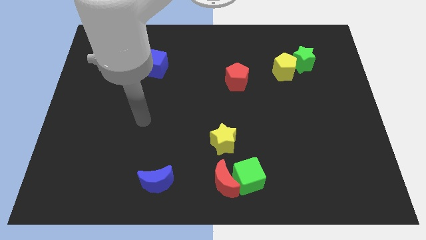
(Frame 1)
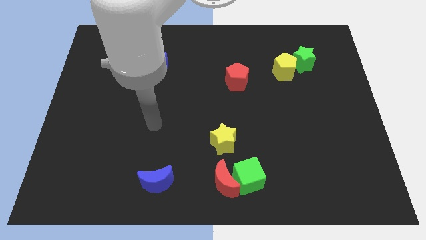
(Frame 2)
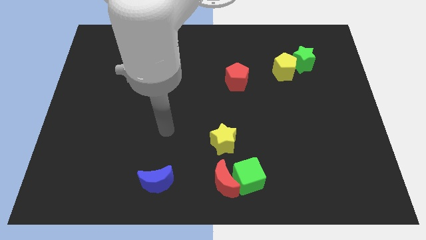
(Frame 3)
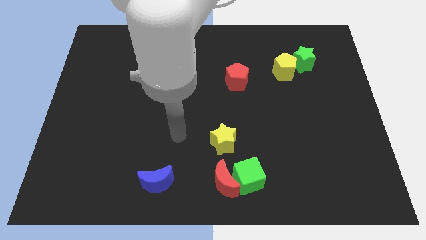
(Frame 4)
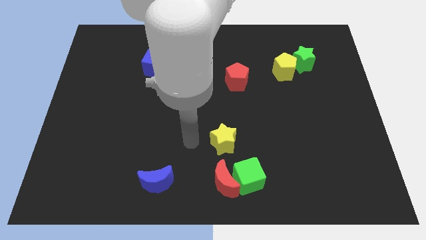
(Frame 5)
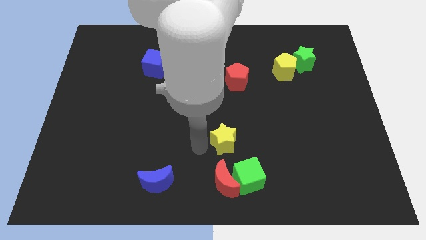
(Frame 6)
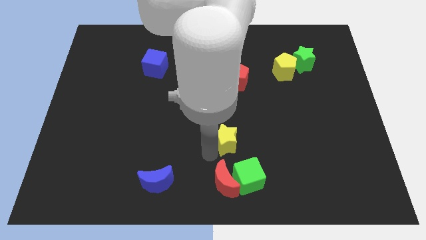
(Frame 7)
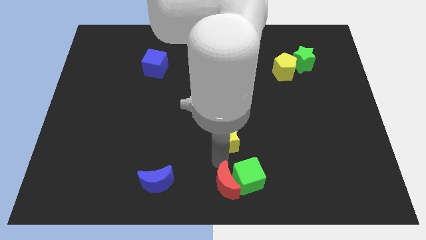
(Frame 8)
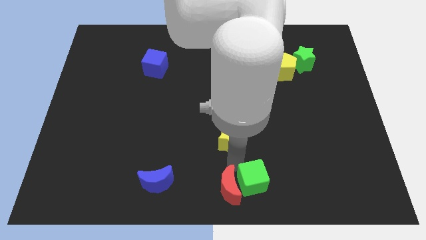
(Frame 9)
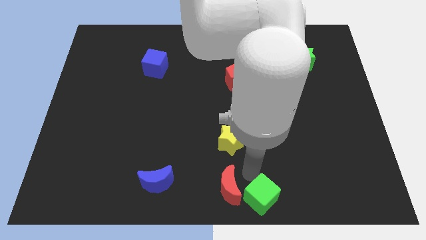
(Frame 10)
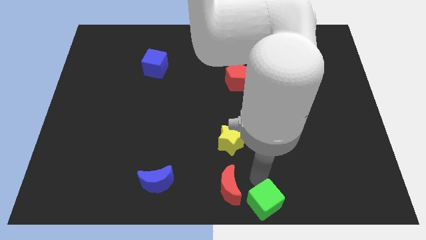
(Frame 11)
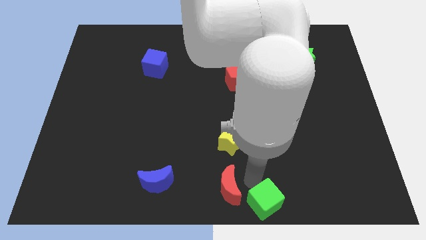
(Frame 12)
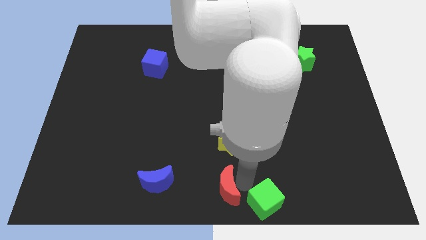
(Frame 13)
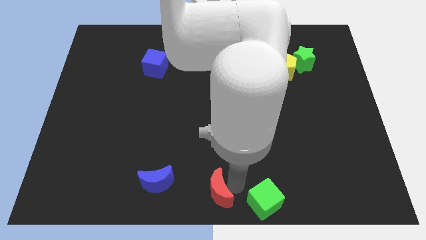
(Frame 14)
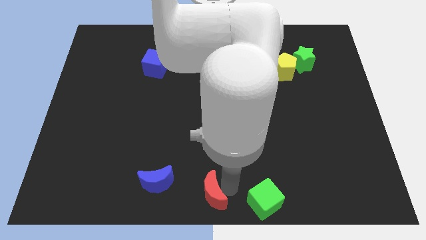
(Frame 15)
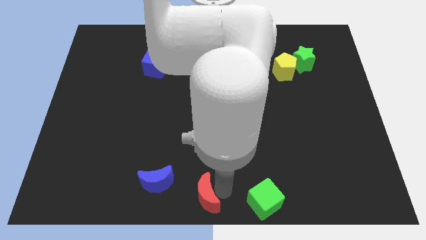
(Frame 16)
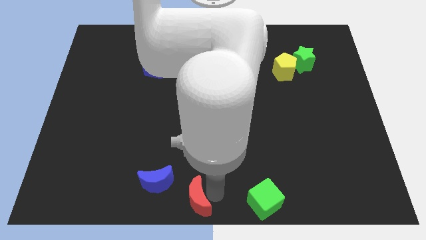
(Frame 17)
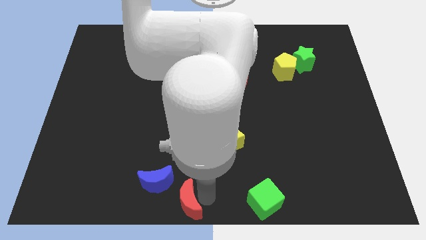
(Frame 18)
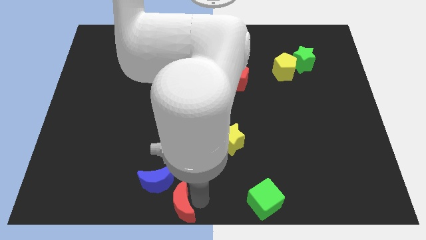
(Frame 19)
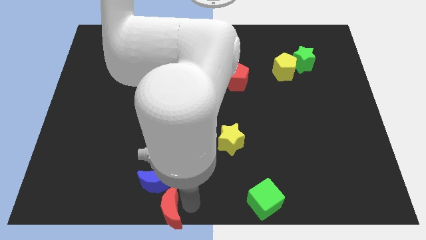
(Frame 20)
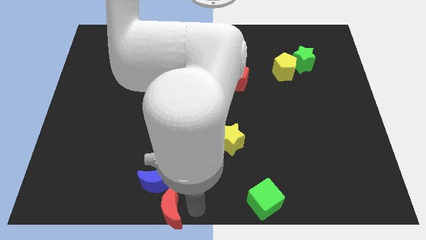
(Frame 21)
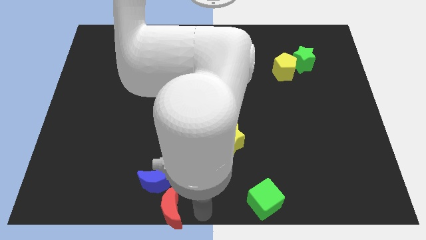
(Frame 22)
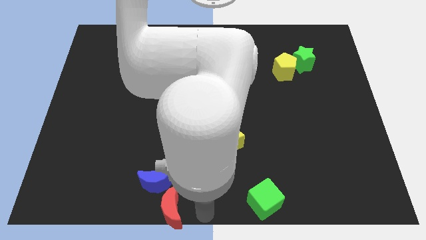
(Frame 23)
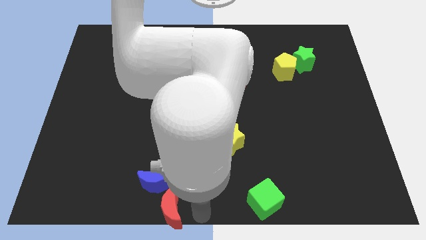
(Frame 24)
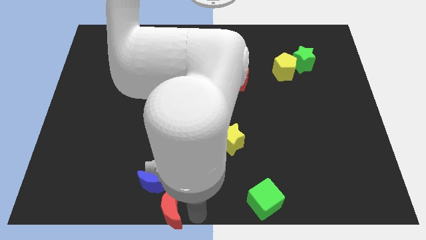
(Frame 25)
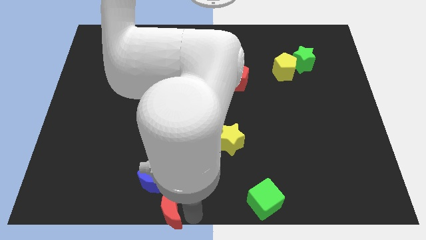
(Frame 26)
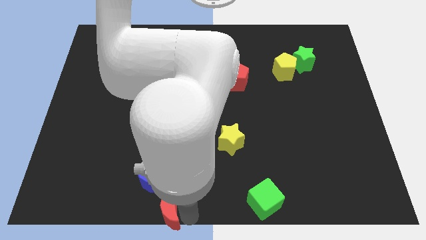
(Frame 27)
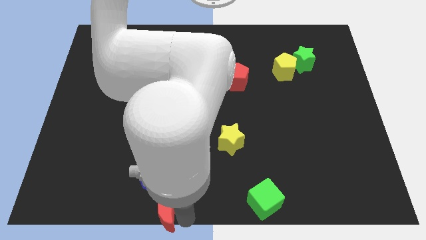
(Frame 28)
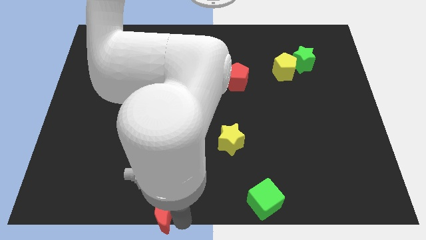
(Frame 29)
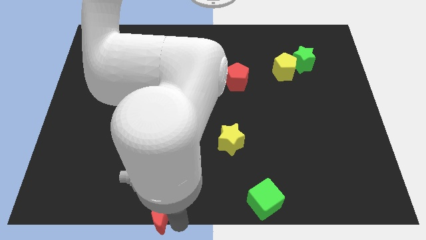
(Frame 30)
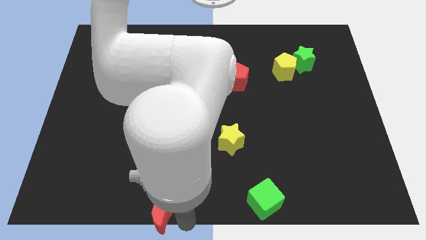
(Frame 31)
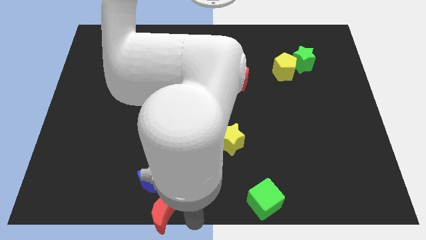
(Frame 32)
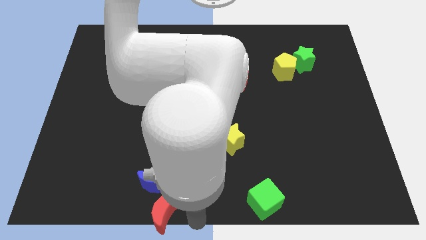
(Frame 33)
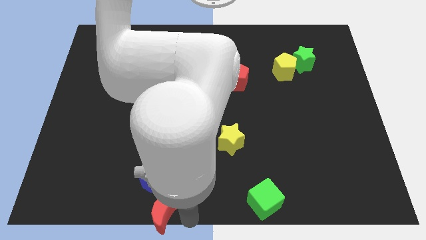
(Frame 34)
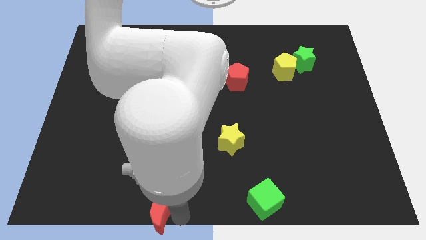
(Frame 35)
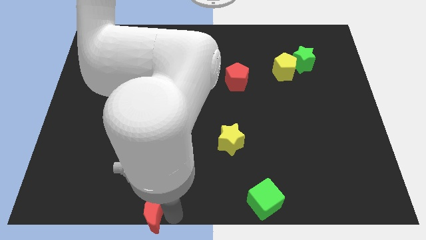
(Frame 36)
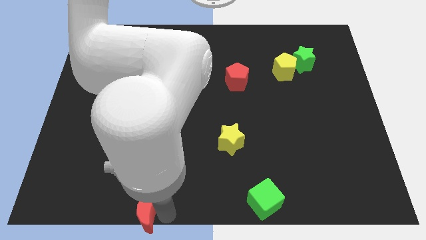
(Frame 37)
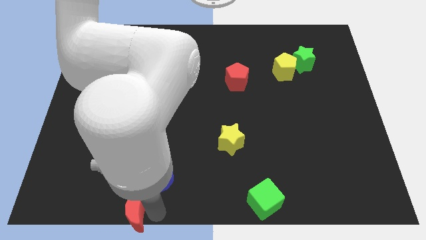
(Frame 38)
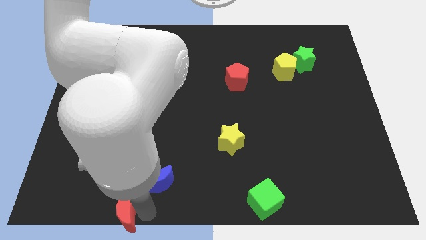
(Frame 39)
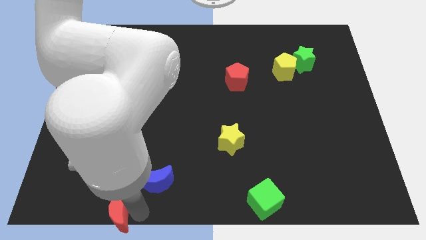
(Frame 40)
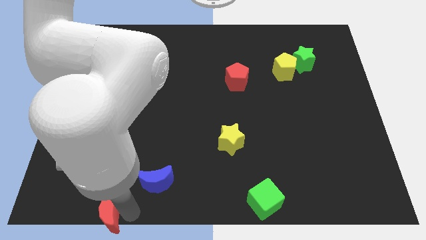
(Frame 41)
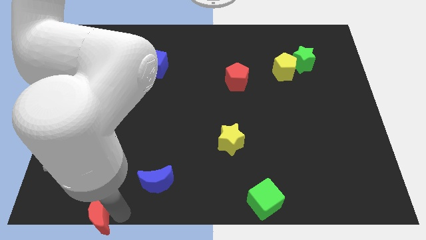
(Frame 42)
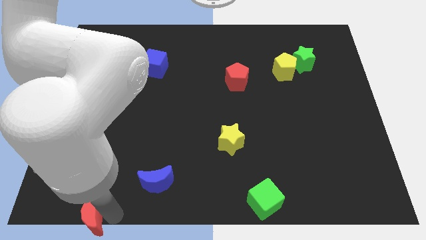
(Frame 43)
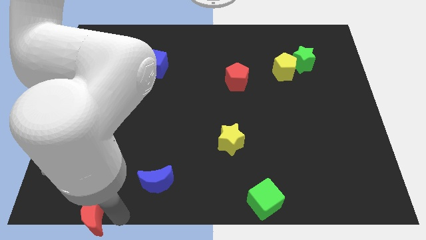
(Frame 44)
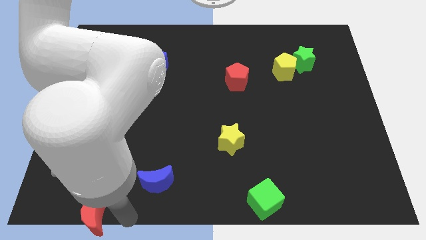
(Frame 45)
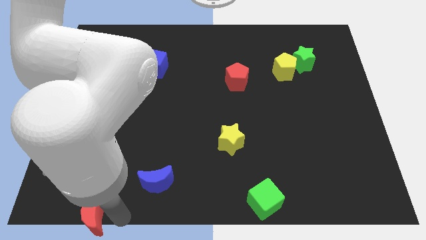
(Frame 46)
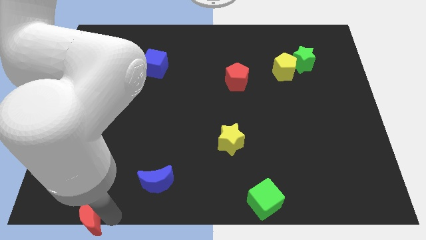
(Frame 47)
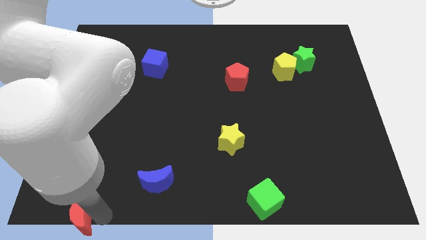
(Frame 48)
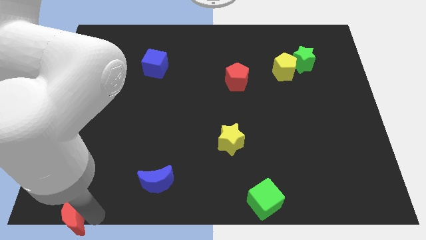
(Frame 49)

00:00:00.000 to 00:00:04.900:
put the red moon to the bottom left of the board

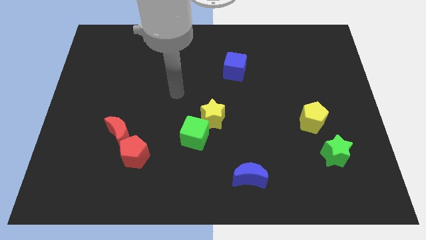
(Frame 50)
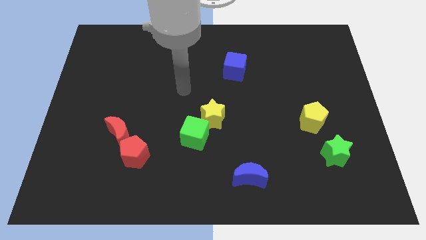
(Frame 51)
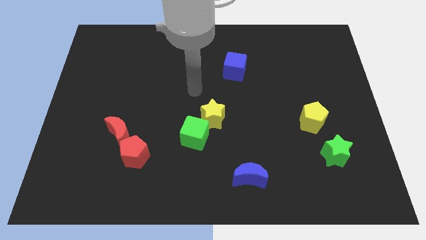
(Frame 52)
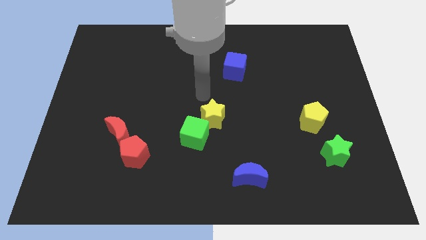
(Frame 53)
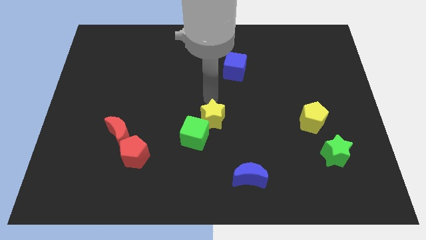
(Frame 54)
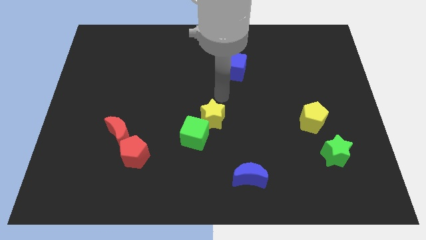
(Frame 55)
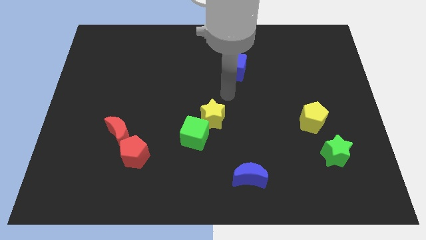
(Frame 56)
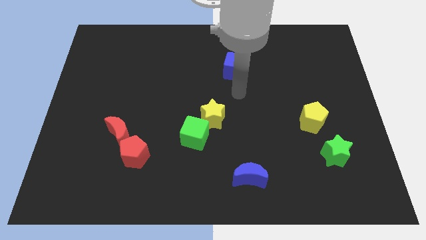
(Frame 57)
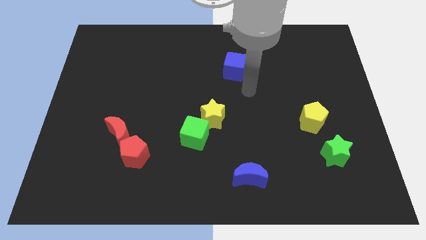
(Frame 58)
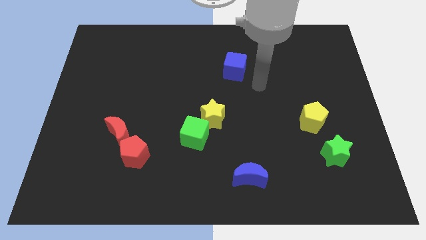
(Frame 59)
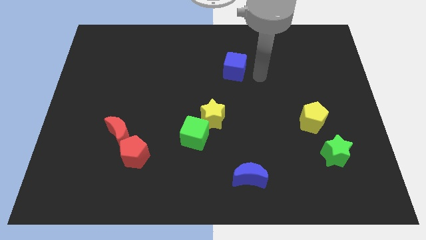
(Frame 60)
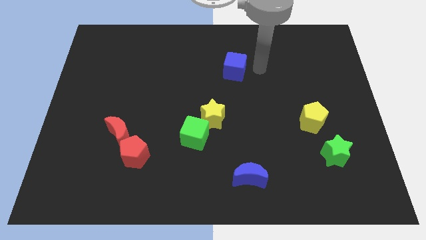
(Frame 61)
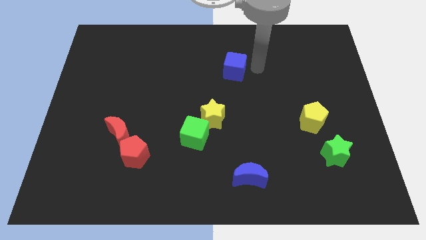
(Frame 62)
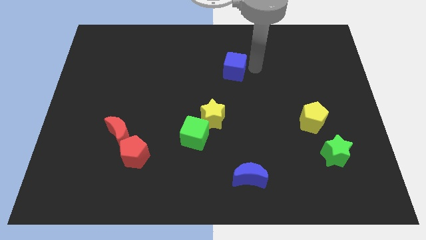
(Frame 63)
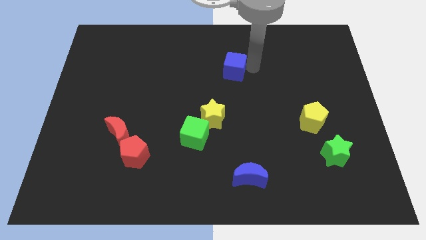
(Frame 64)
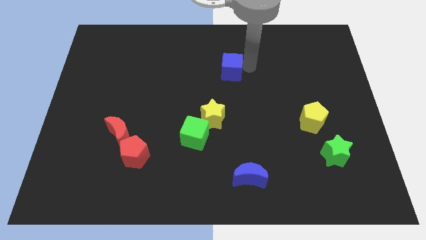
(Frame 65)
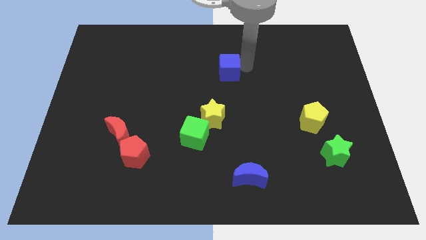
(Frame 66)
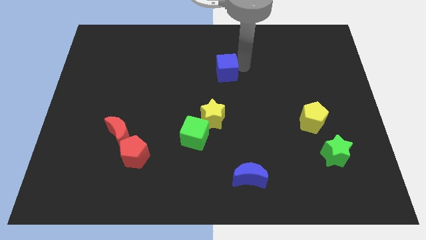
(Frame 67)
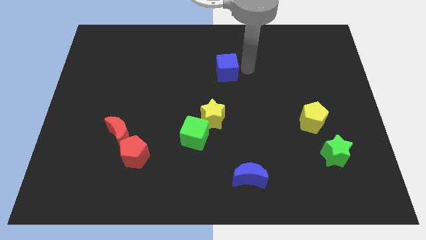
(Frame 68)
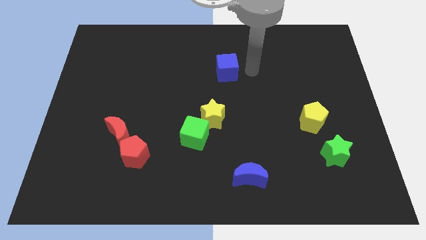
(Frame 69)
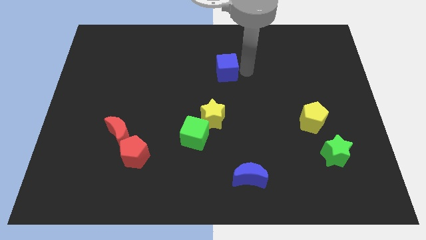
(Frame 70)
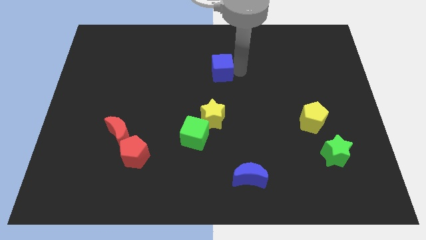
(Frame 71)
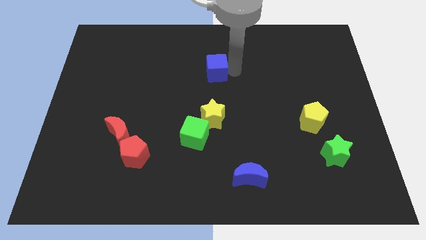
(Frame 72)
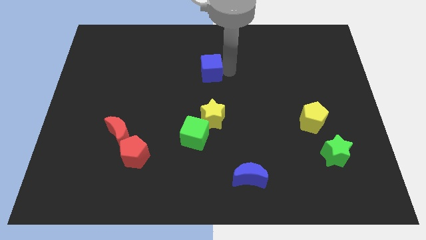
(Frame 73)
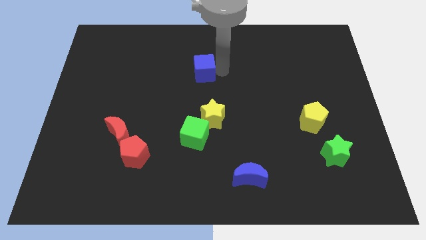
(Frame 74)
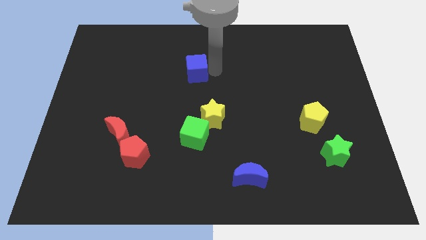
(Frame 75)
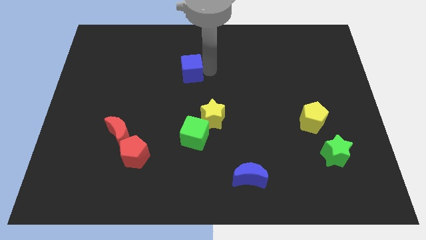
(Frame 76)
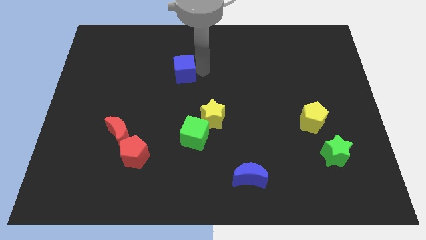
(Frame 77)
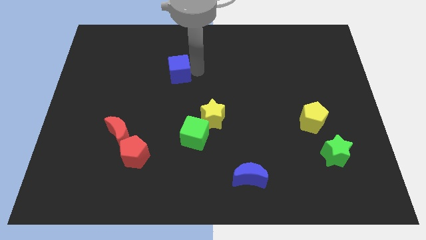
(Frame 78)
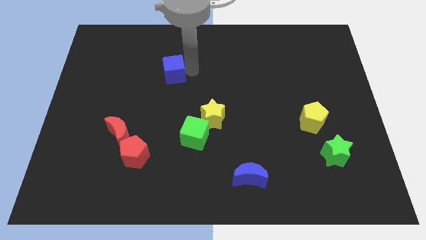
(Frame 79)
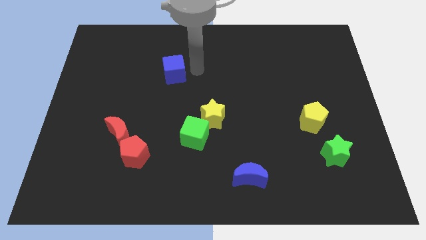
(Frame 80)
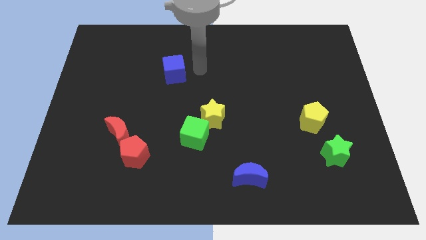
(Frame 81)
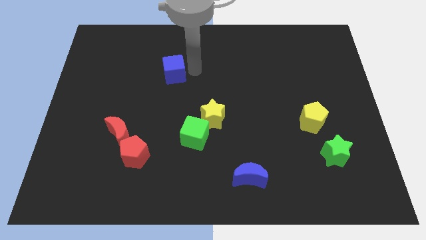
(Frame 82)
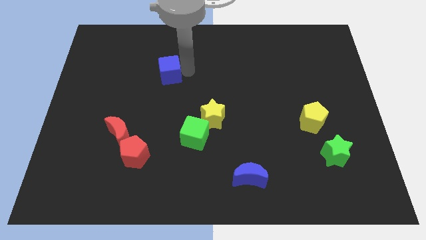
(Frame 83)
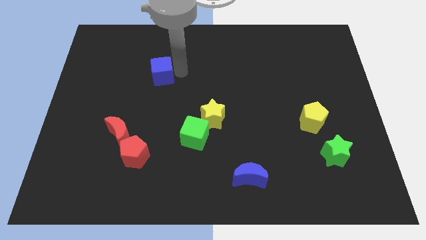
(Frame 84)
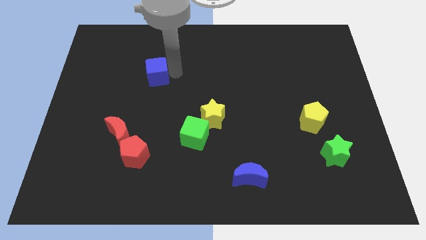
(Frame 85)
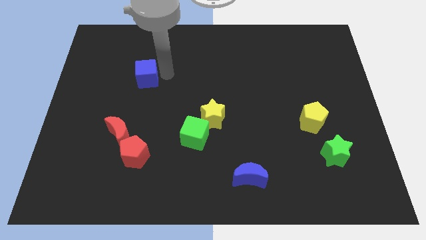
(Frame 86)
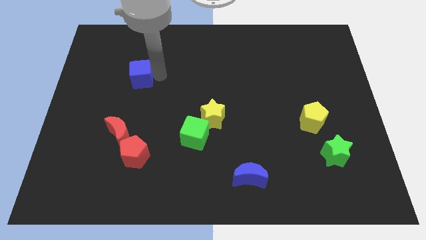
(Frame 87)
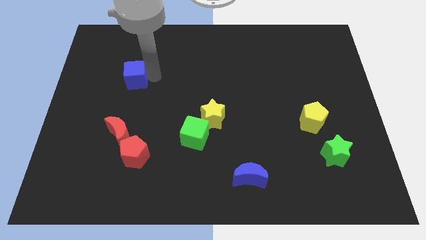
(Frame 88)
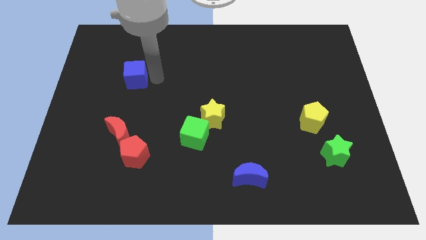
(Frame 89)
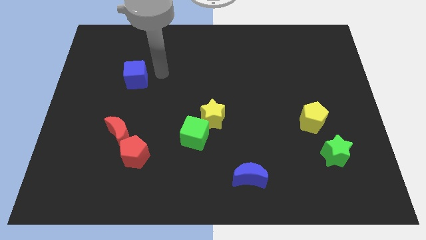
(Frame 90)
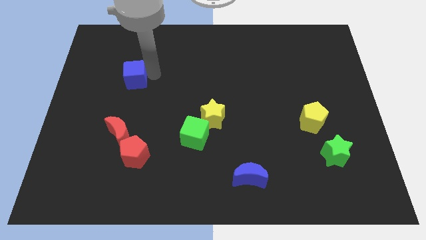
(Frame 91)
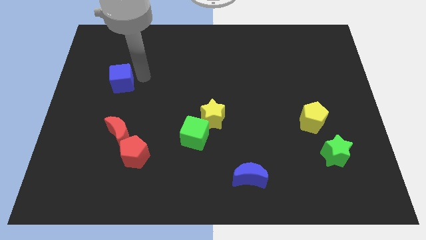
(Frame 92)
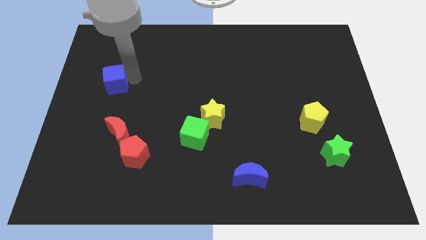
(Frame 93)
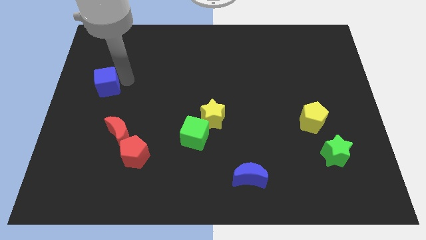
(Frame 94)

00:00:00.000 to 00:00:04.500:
move the blue cube to the left side
